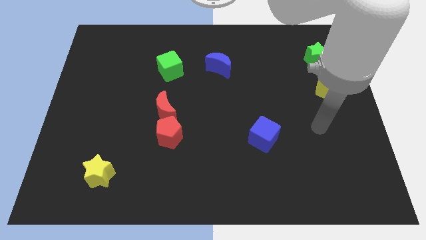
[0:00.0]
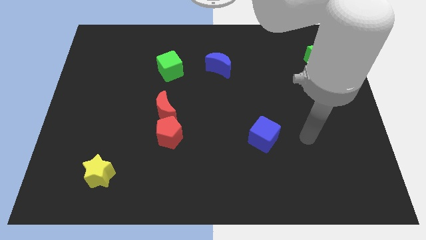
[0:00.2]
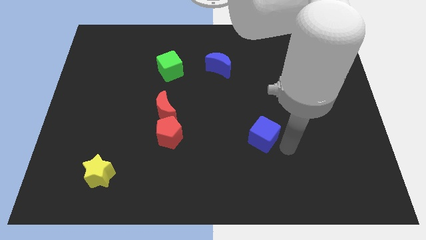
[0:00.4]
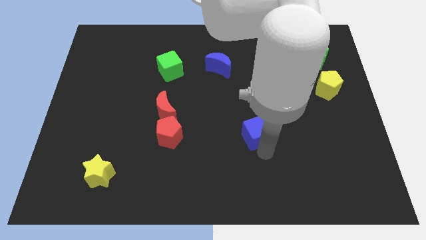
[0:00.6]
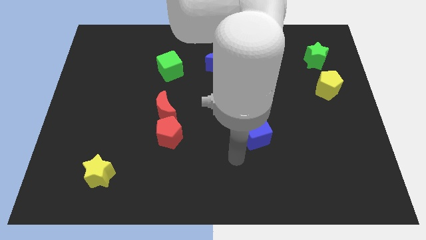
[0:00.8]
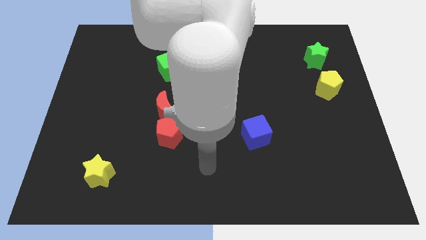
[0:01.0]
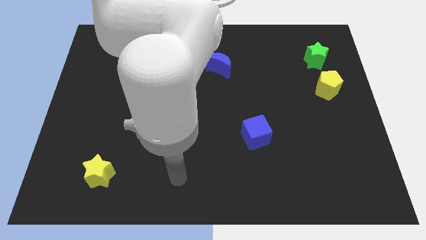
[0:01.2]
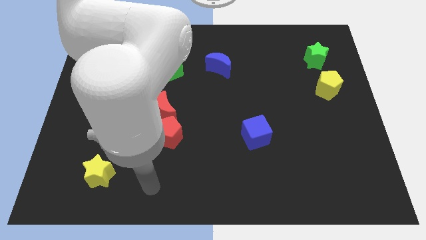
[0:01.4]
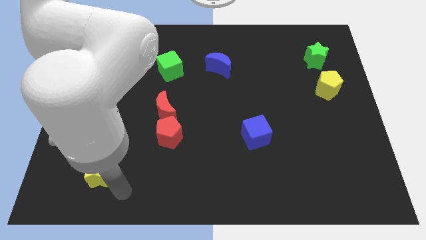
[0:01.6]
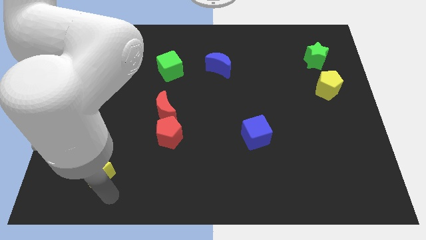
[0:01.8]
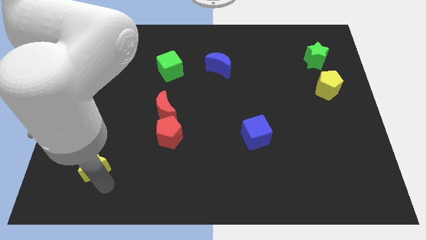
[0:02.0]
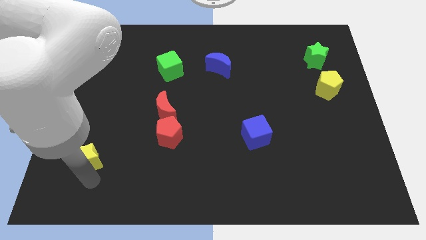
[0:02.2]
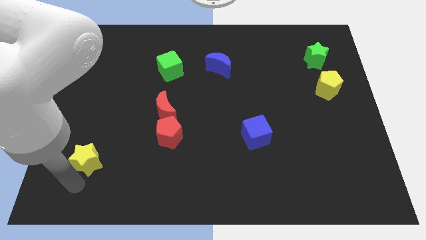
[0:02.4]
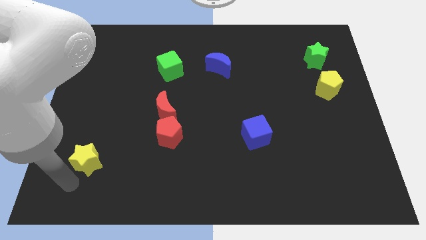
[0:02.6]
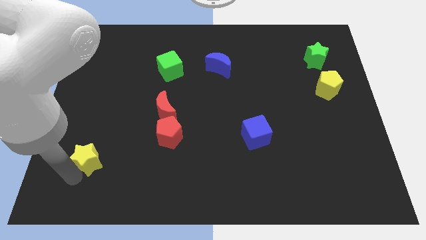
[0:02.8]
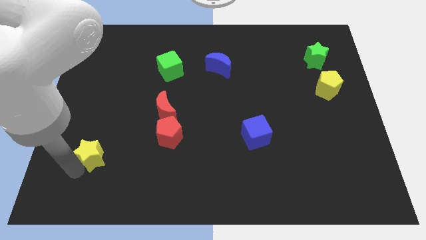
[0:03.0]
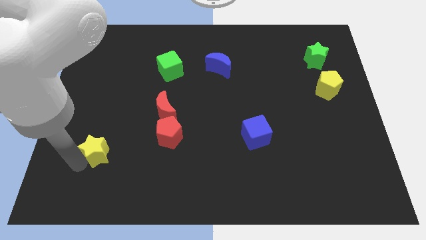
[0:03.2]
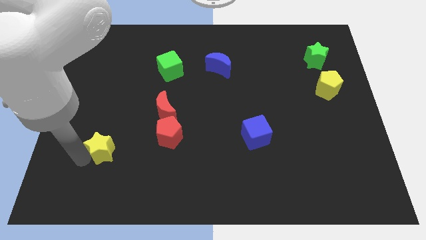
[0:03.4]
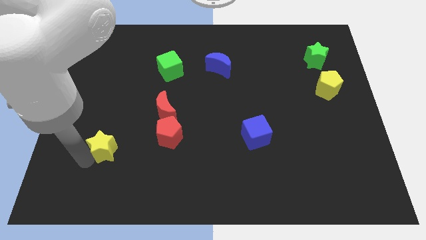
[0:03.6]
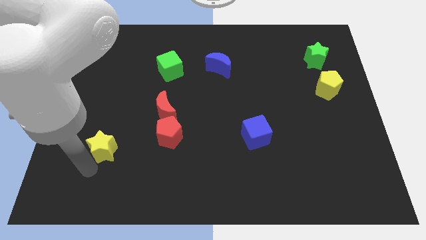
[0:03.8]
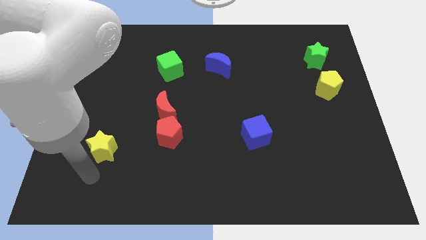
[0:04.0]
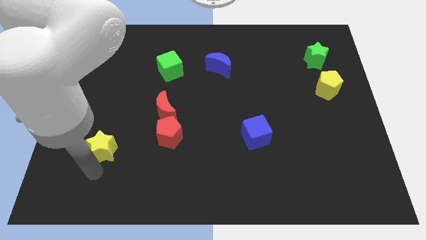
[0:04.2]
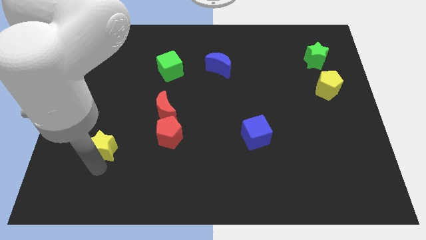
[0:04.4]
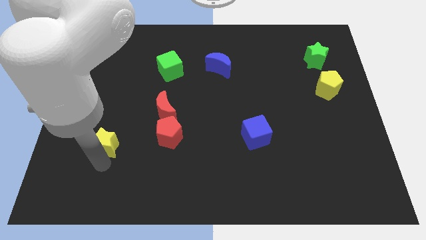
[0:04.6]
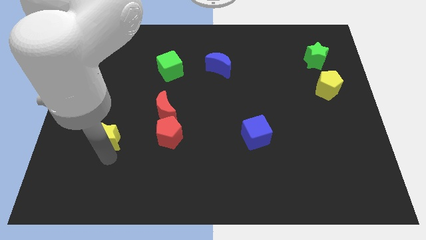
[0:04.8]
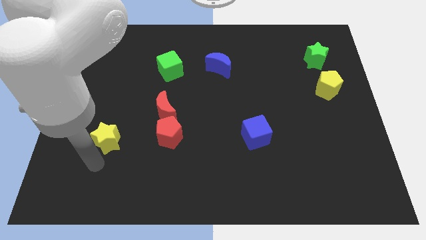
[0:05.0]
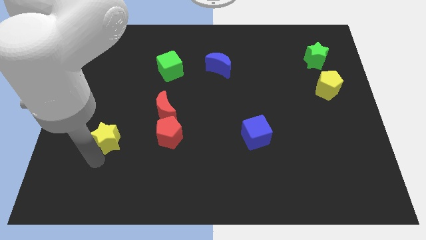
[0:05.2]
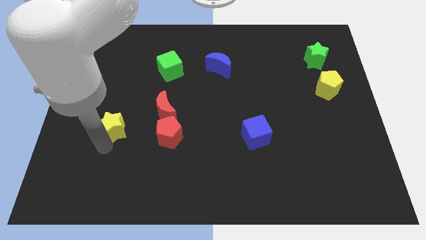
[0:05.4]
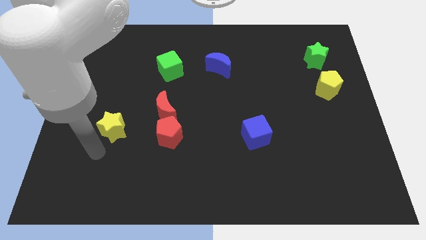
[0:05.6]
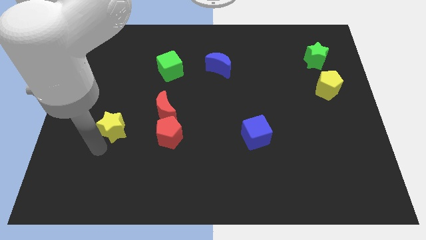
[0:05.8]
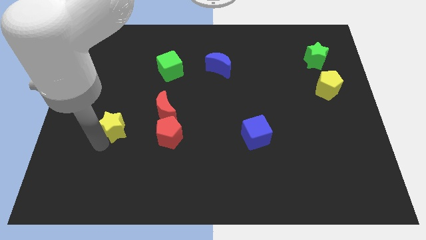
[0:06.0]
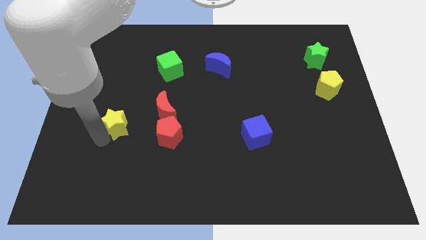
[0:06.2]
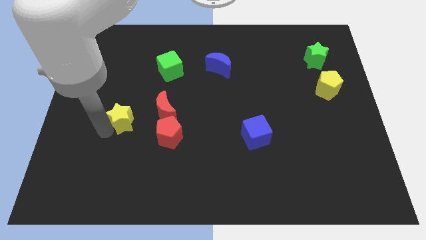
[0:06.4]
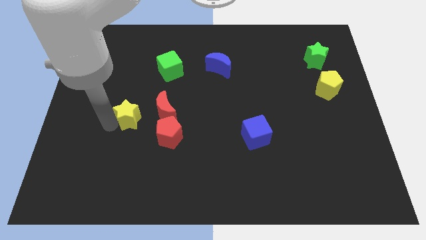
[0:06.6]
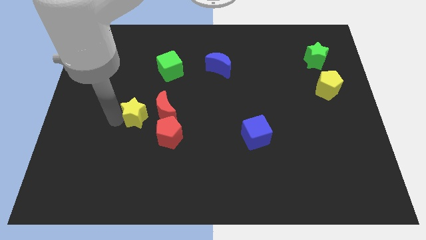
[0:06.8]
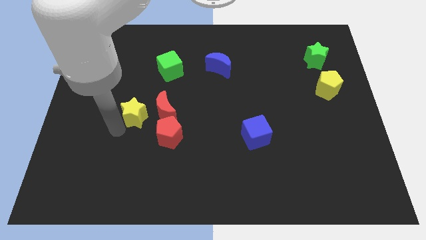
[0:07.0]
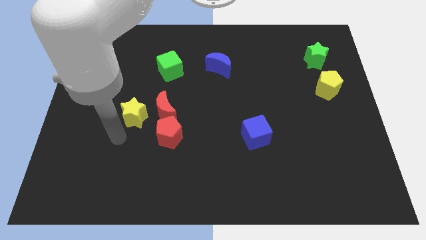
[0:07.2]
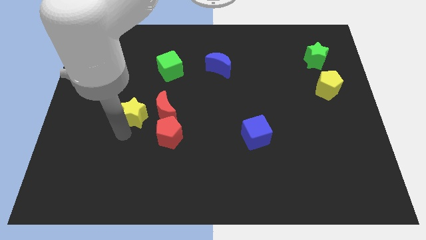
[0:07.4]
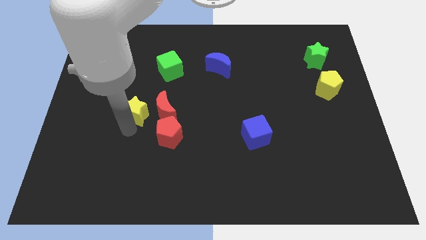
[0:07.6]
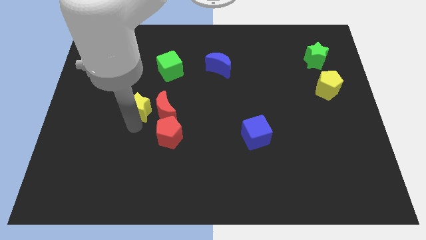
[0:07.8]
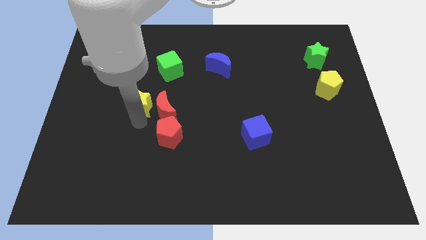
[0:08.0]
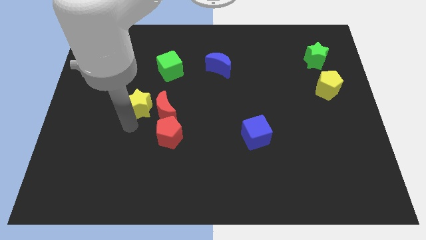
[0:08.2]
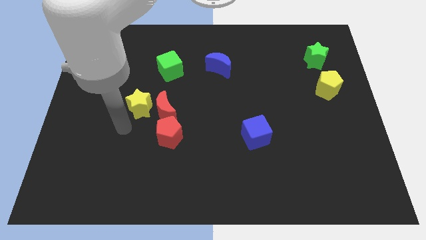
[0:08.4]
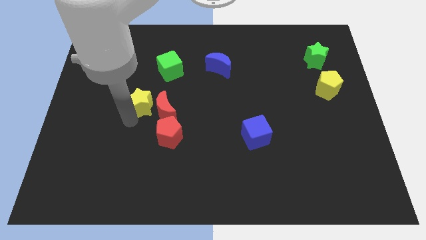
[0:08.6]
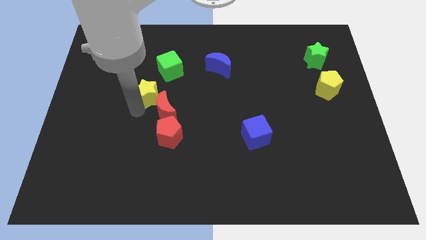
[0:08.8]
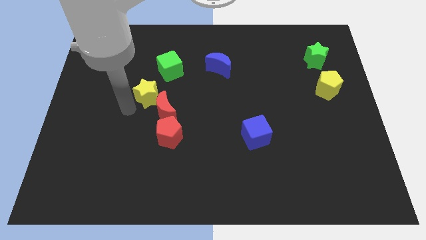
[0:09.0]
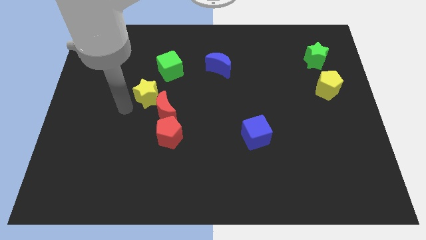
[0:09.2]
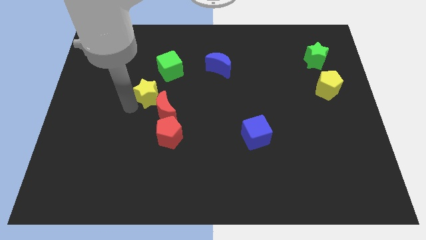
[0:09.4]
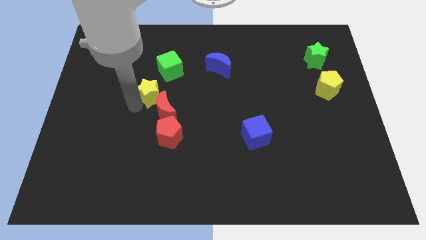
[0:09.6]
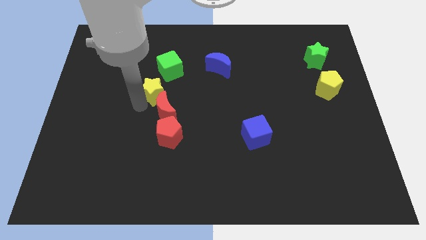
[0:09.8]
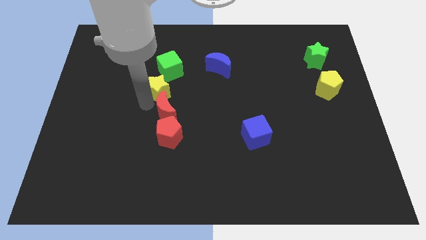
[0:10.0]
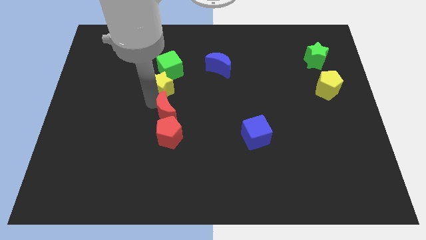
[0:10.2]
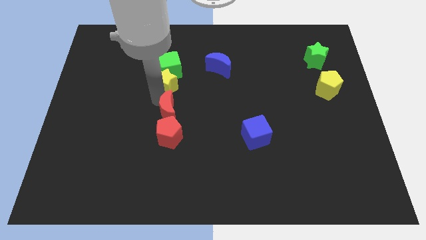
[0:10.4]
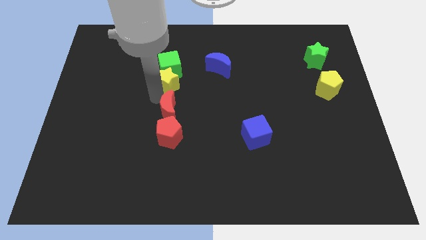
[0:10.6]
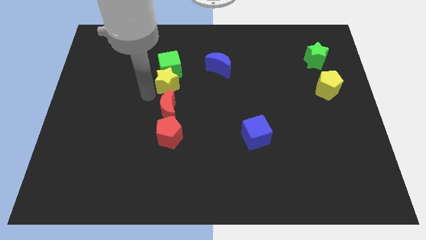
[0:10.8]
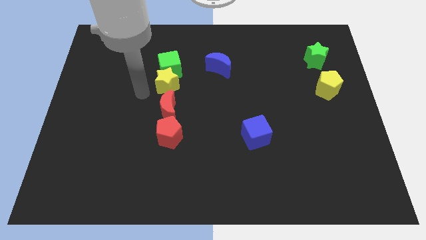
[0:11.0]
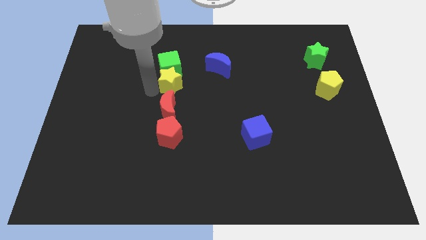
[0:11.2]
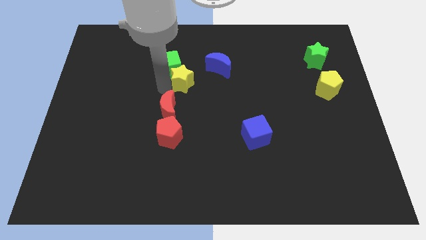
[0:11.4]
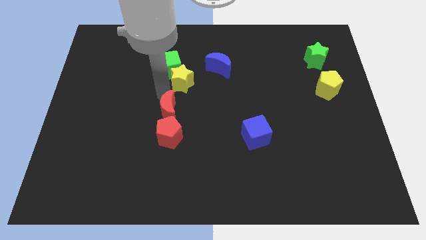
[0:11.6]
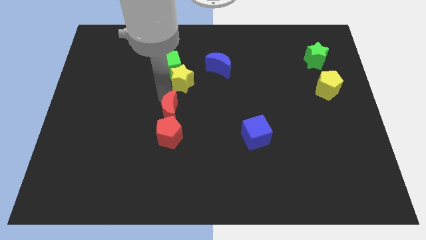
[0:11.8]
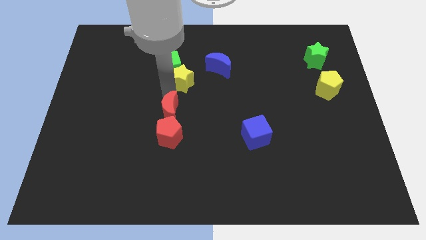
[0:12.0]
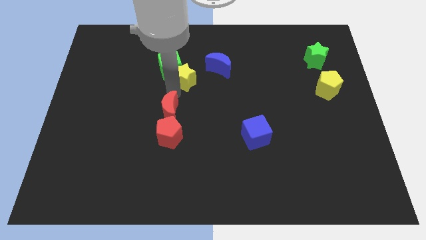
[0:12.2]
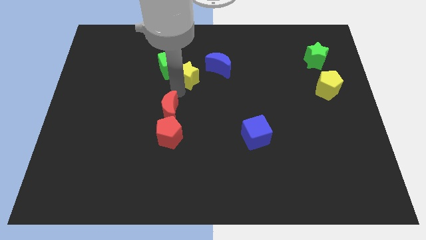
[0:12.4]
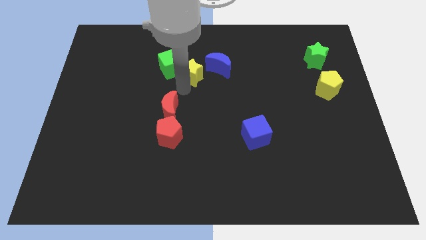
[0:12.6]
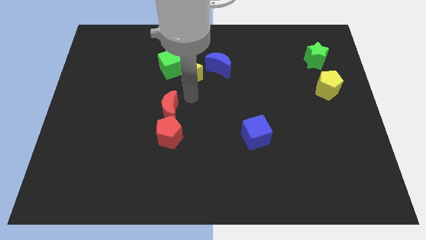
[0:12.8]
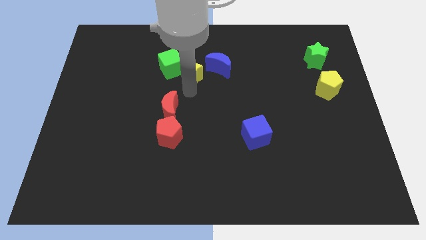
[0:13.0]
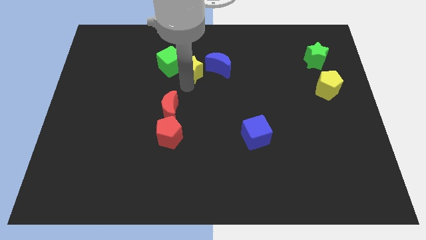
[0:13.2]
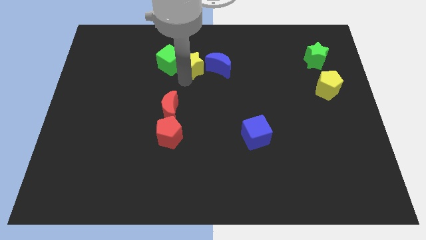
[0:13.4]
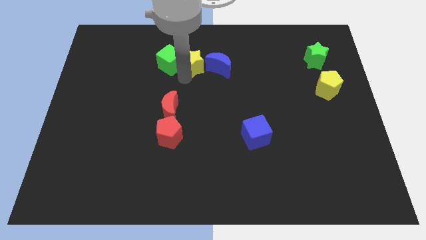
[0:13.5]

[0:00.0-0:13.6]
move the yellow star to the top right side of the green cube
